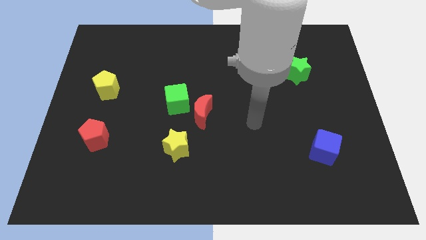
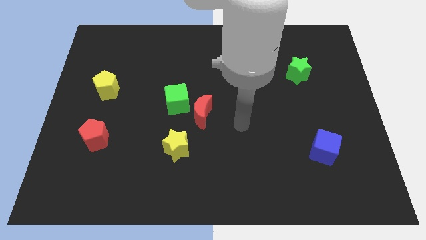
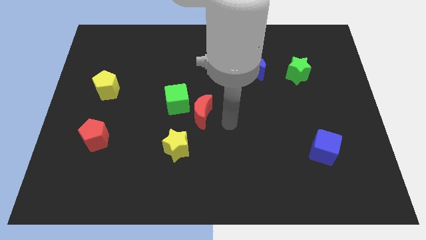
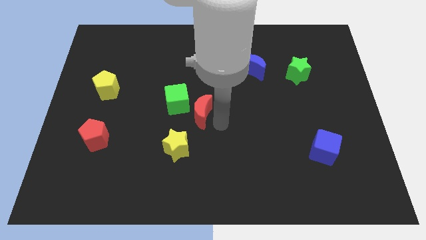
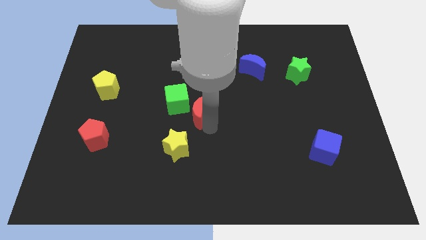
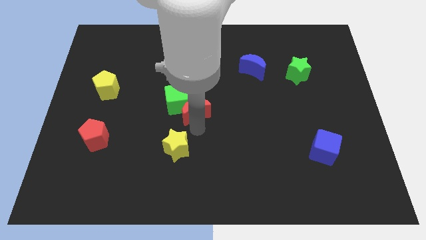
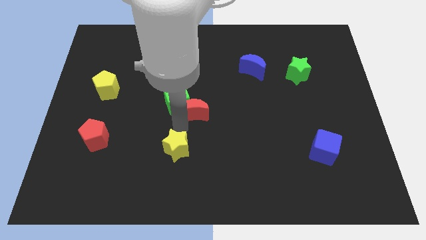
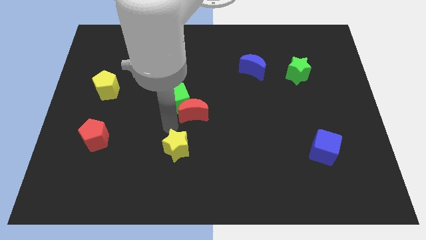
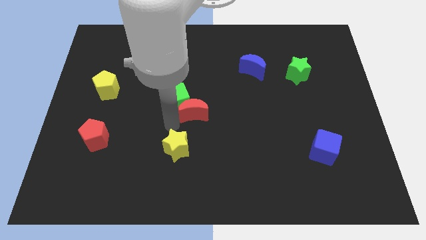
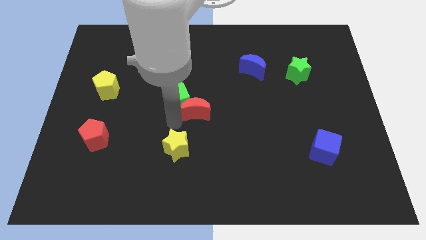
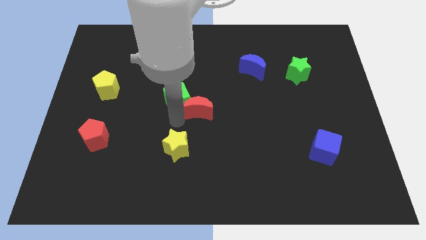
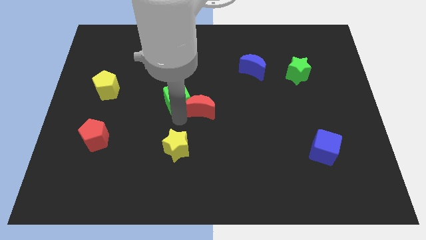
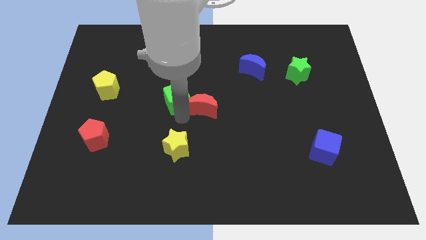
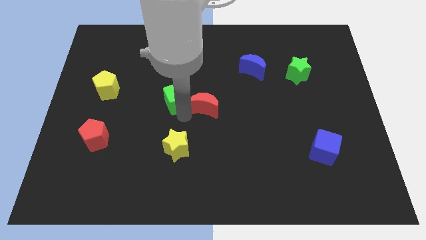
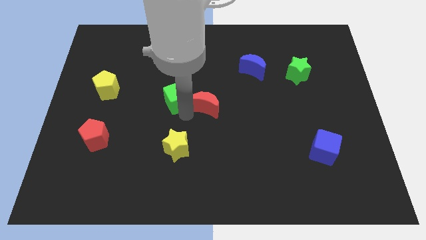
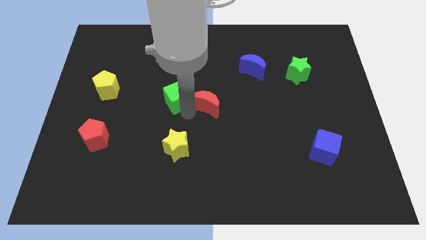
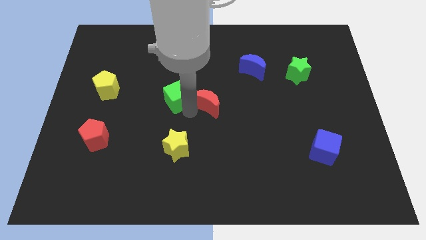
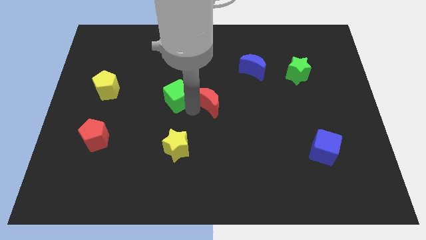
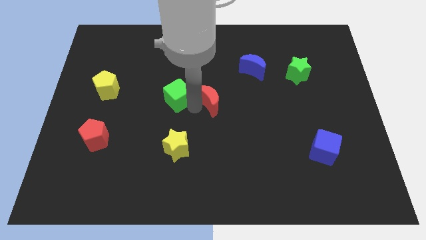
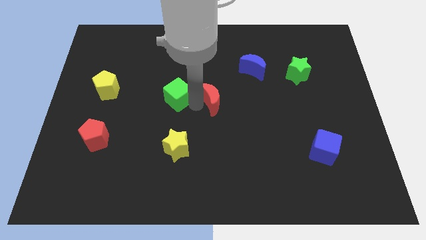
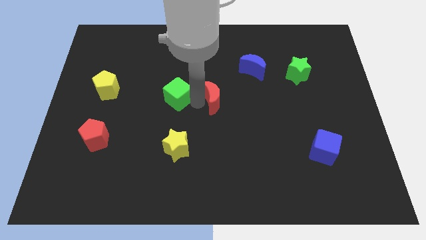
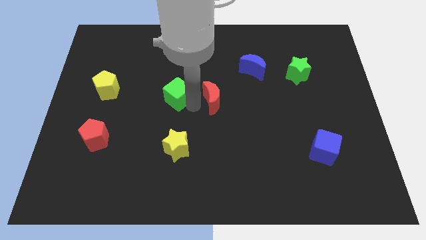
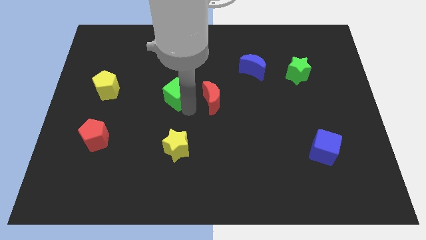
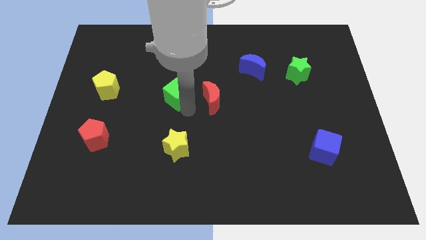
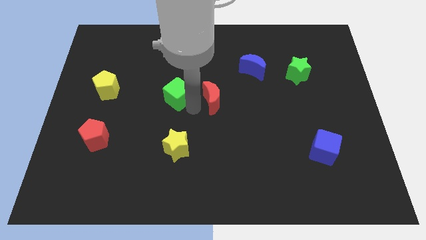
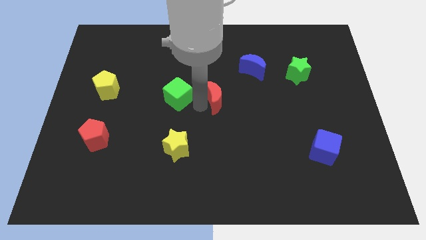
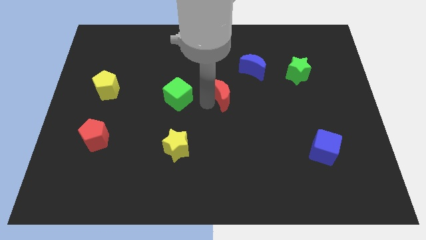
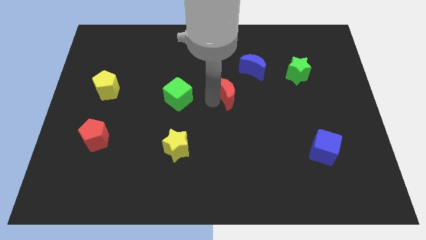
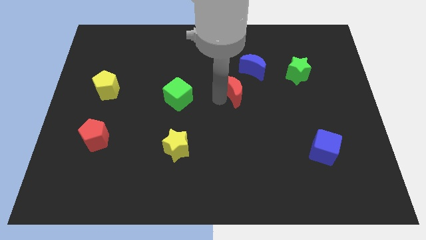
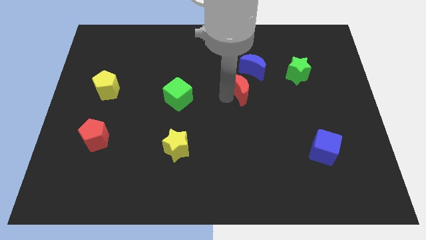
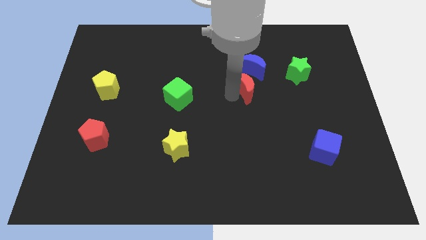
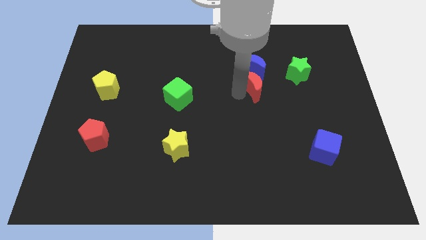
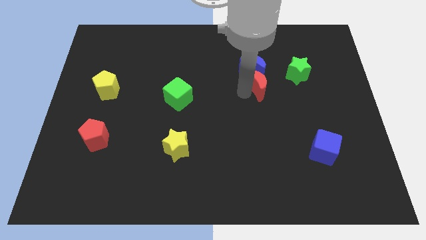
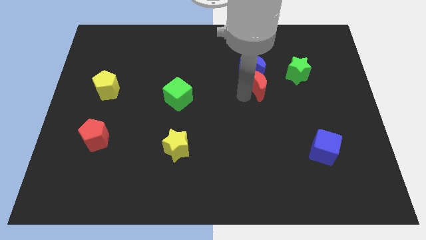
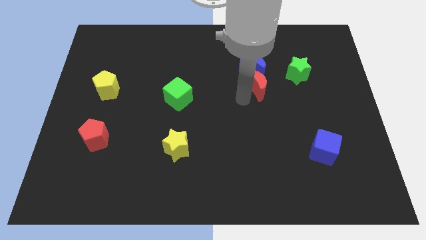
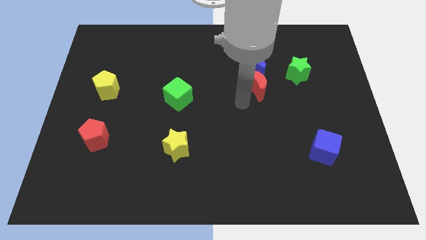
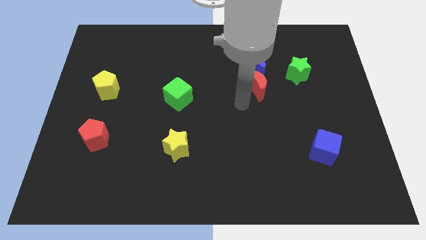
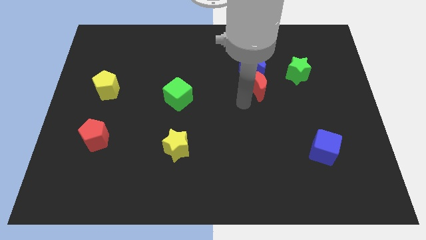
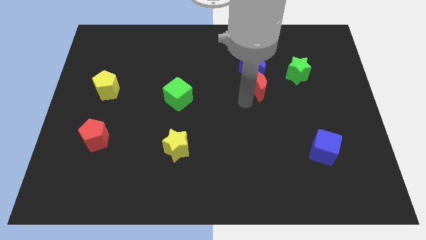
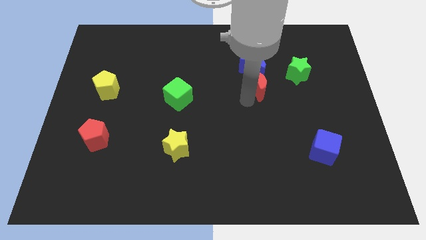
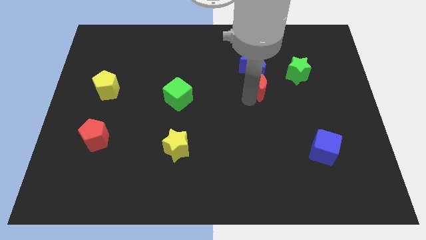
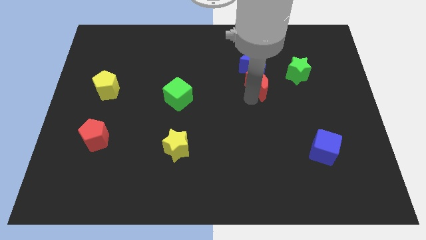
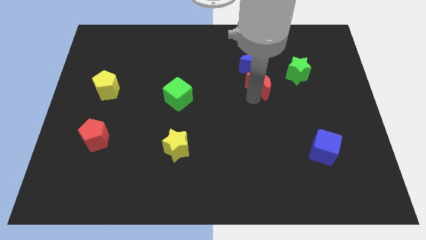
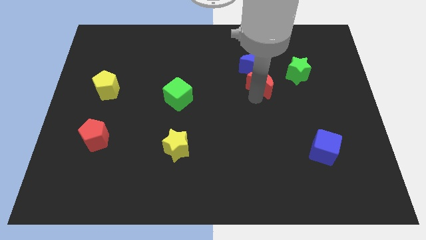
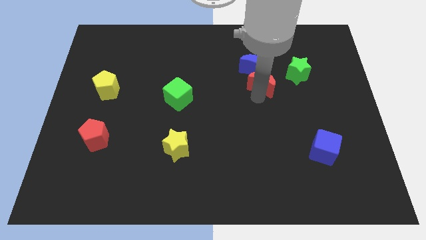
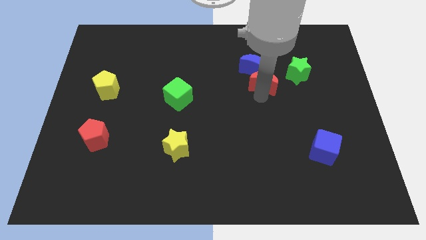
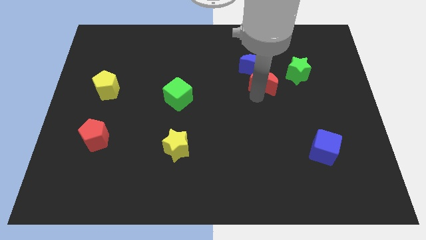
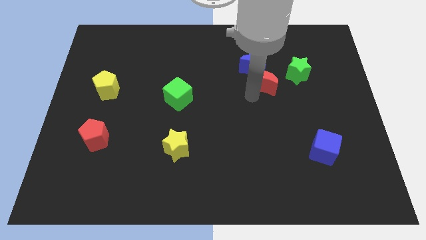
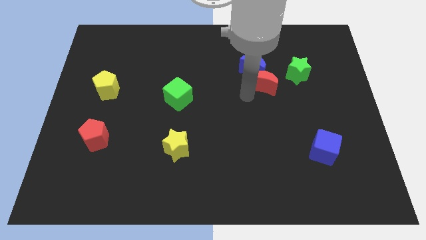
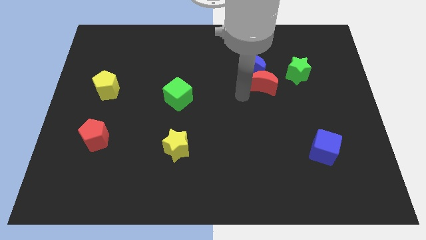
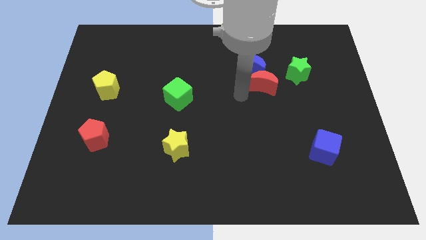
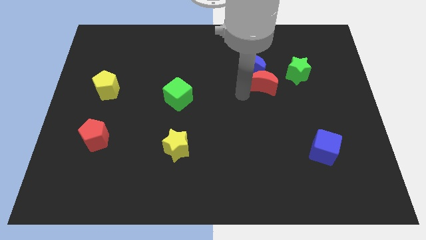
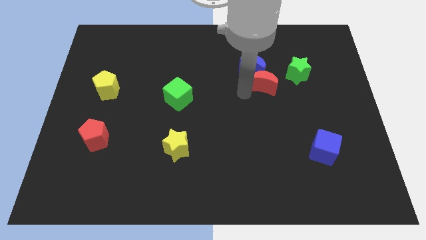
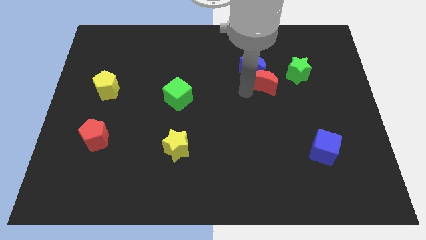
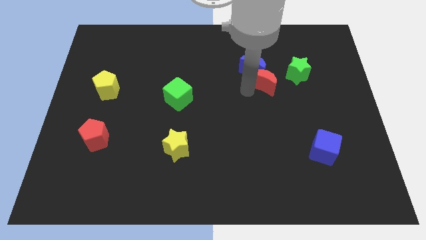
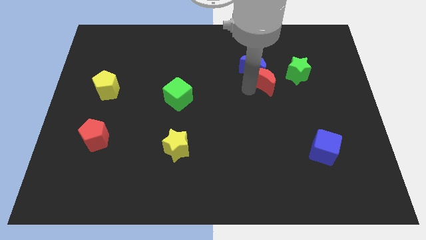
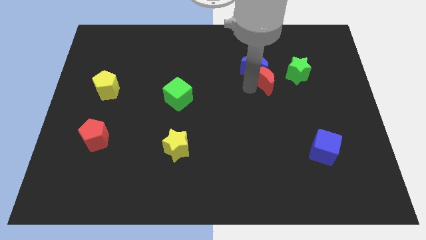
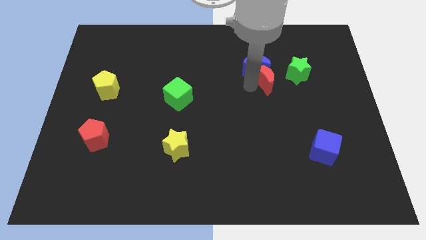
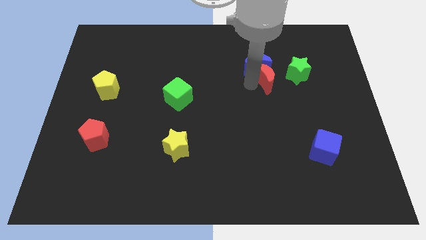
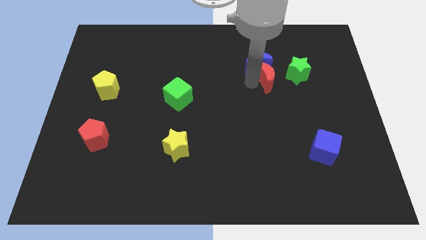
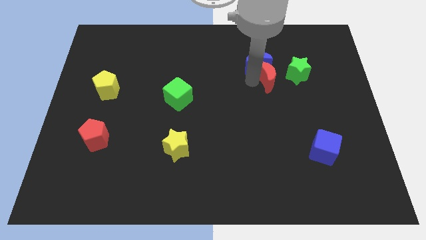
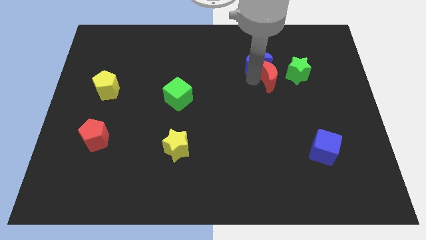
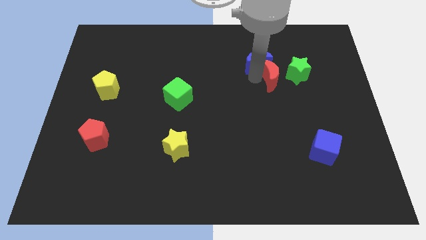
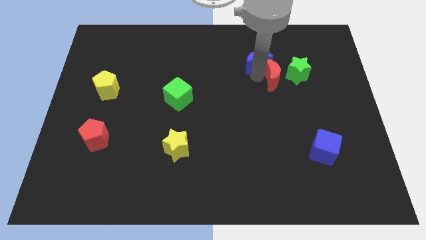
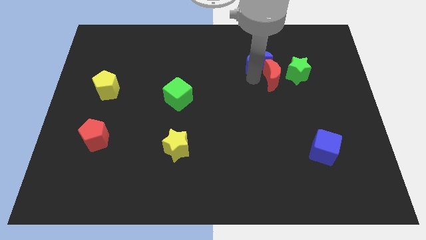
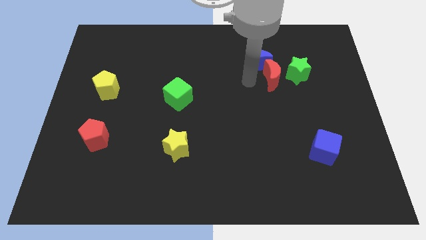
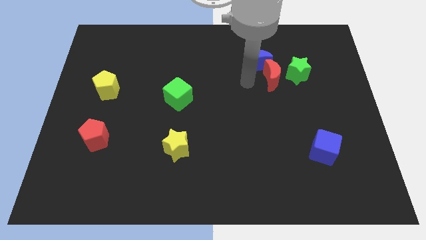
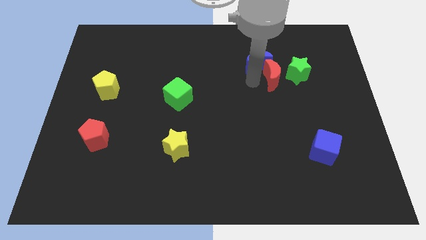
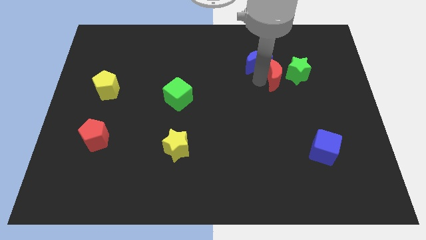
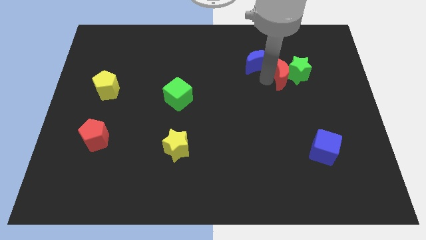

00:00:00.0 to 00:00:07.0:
put the red moon next to the green star
